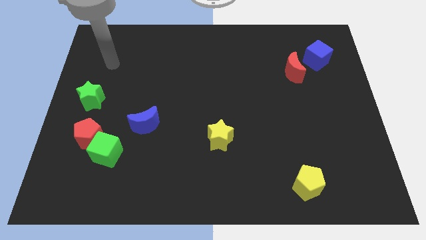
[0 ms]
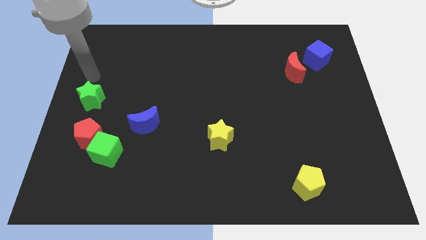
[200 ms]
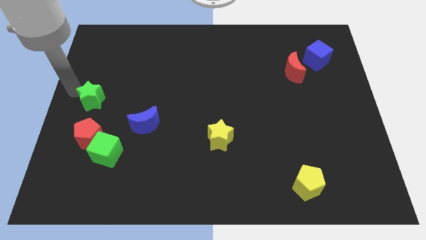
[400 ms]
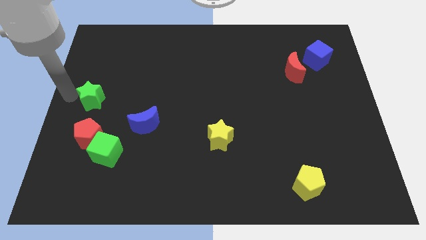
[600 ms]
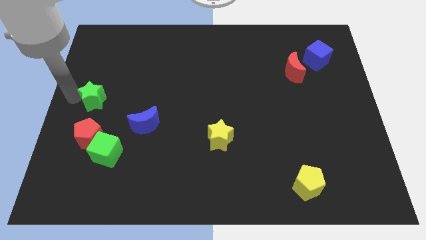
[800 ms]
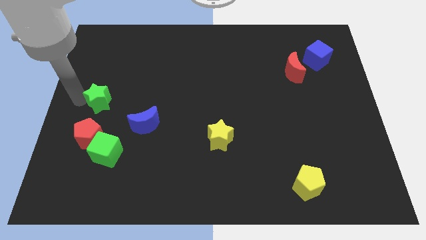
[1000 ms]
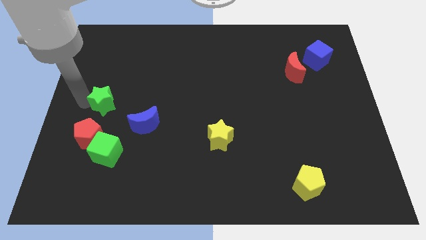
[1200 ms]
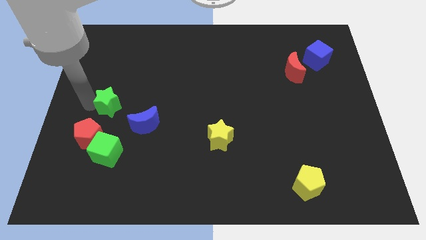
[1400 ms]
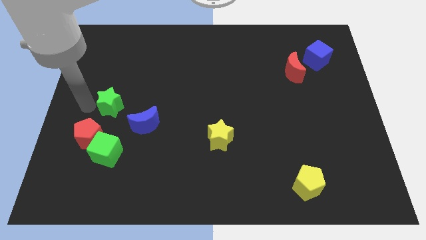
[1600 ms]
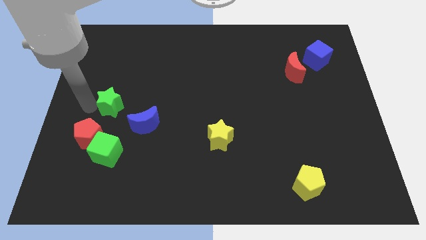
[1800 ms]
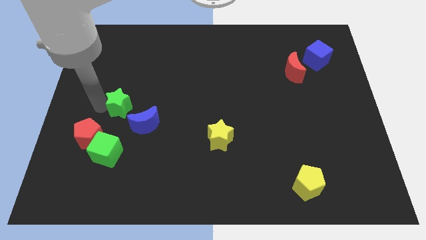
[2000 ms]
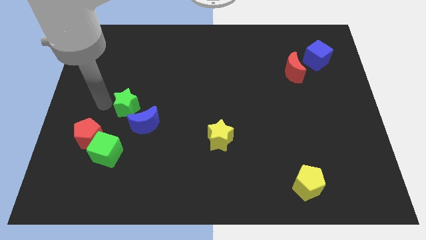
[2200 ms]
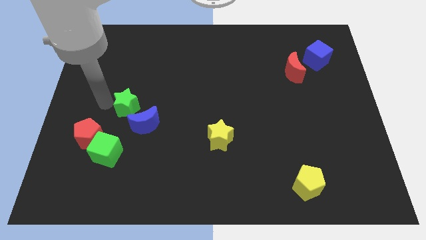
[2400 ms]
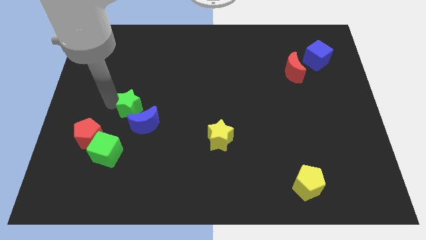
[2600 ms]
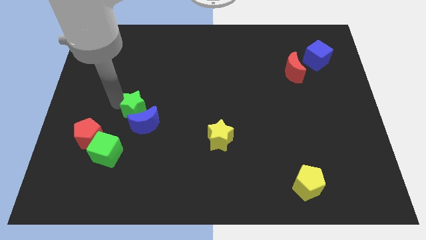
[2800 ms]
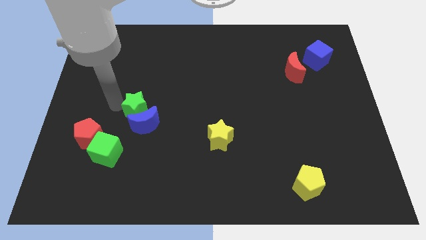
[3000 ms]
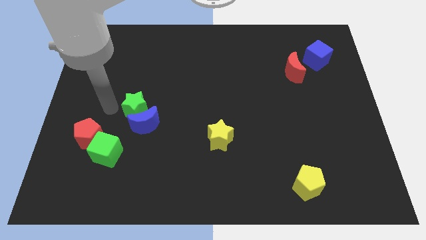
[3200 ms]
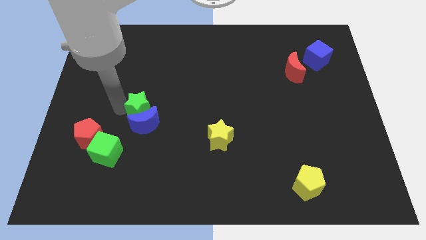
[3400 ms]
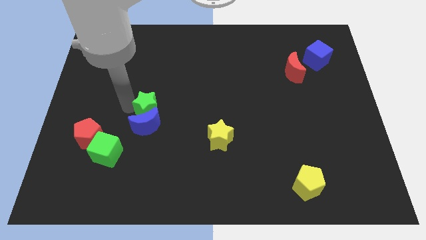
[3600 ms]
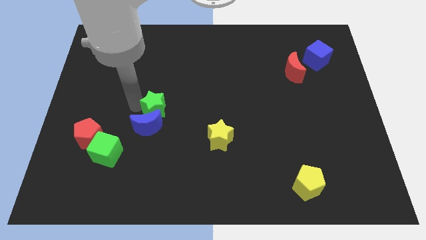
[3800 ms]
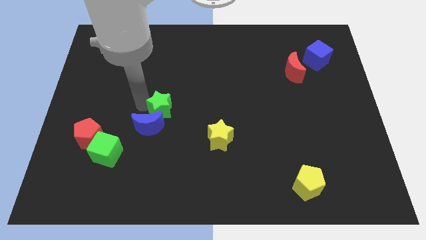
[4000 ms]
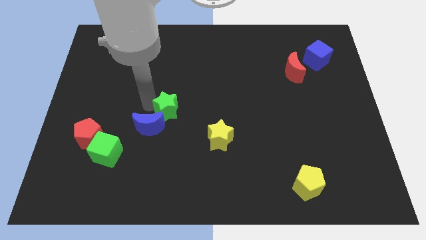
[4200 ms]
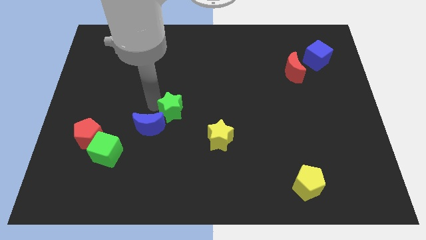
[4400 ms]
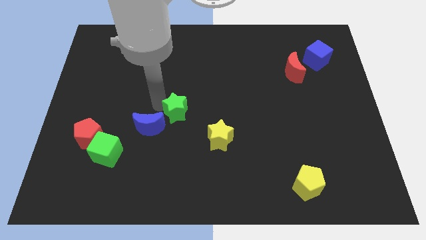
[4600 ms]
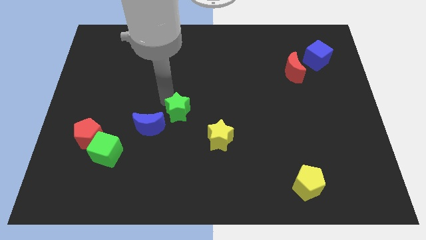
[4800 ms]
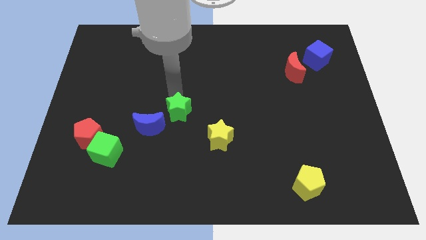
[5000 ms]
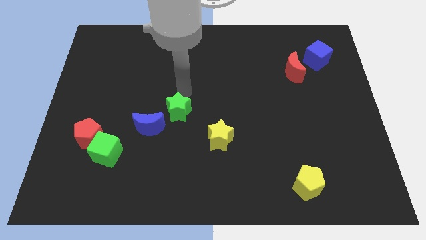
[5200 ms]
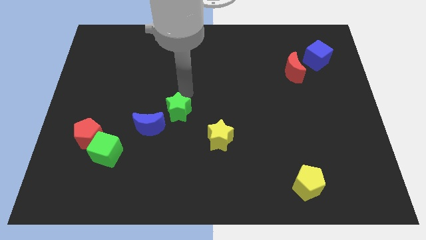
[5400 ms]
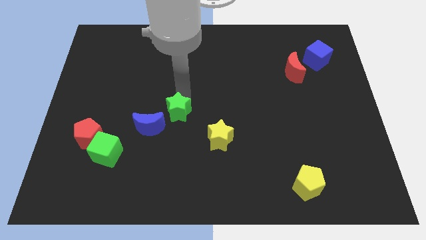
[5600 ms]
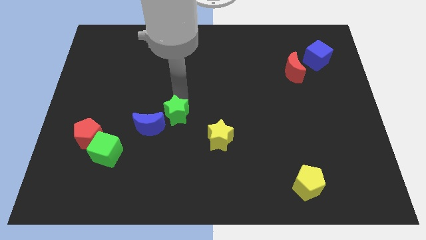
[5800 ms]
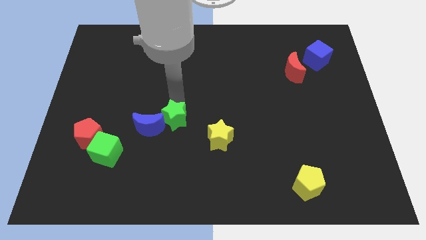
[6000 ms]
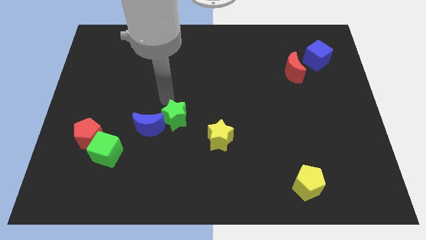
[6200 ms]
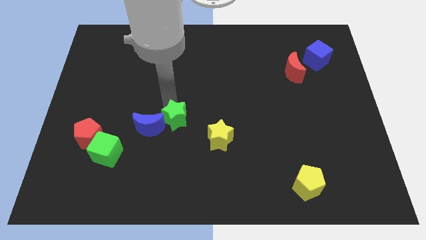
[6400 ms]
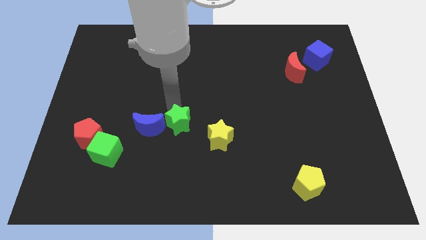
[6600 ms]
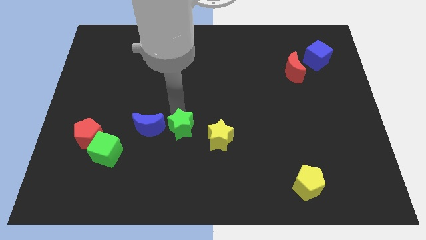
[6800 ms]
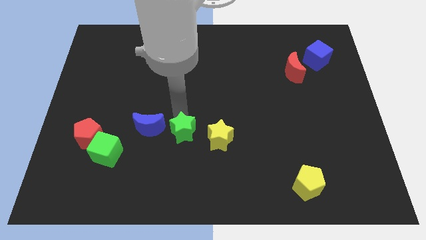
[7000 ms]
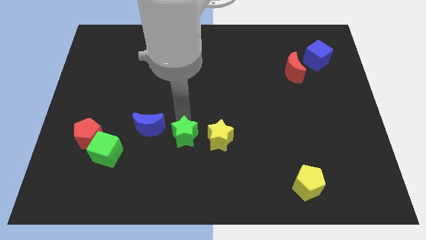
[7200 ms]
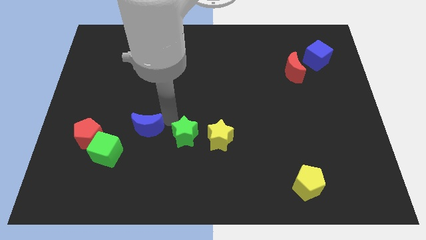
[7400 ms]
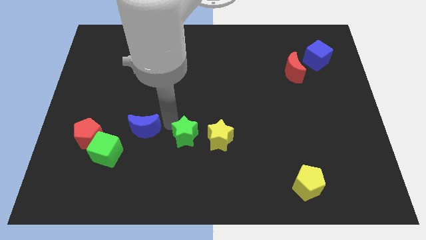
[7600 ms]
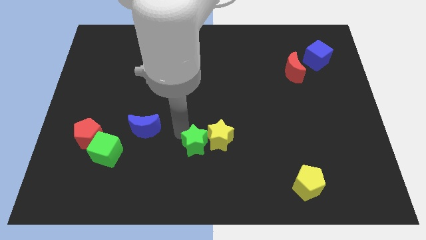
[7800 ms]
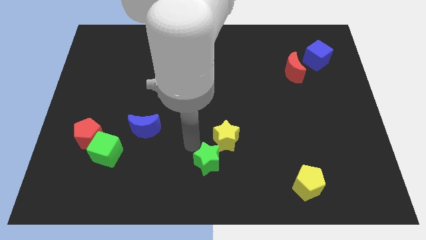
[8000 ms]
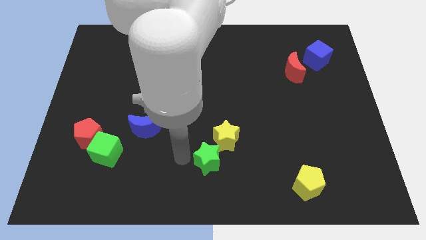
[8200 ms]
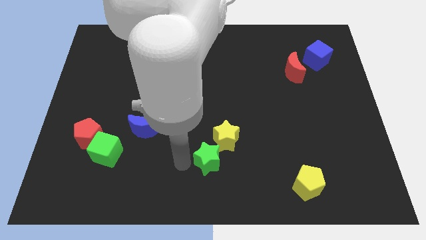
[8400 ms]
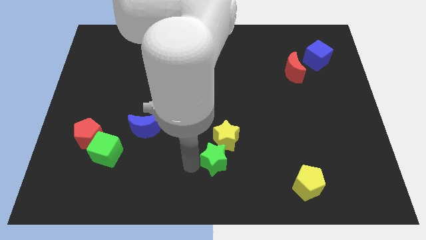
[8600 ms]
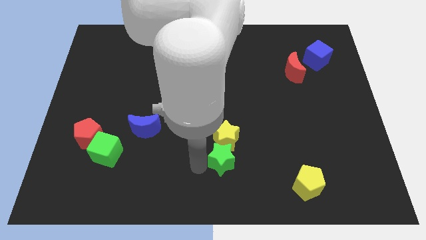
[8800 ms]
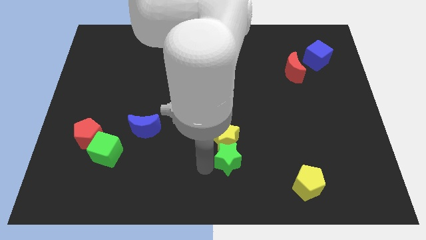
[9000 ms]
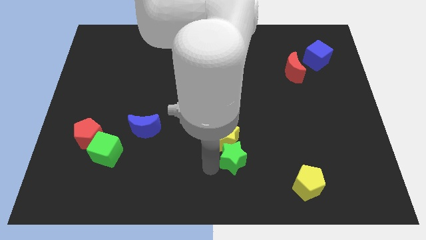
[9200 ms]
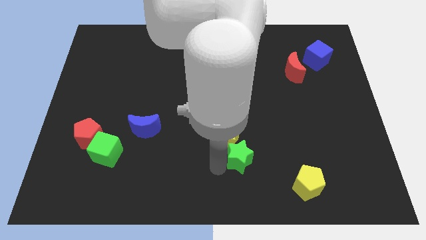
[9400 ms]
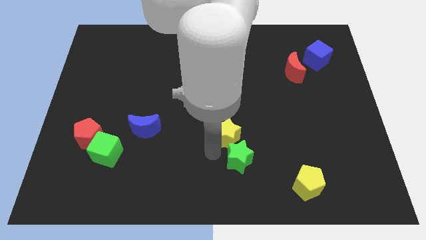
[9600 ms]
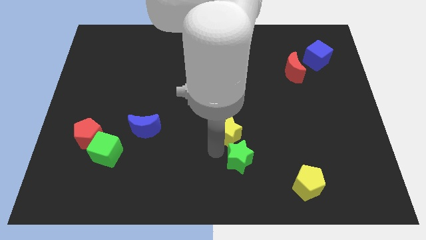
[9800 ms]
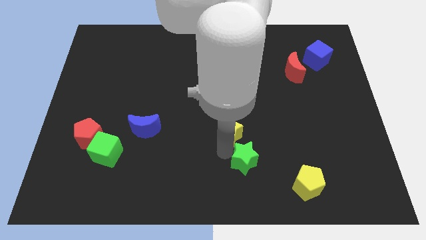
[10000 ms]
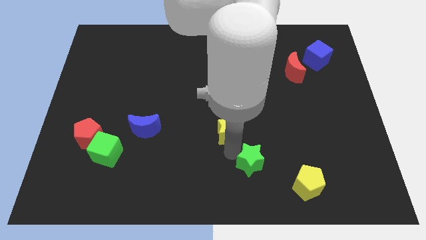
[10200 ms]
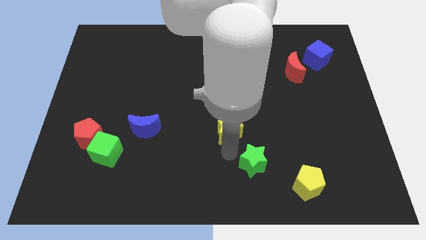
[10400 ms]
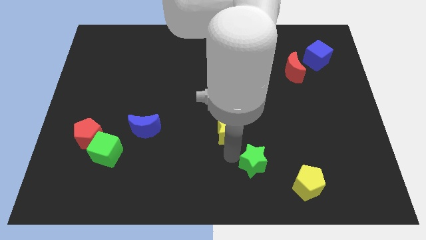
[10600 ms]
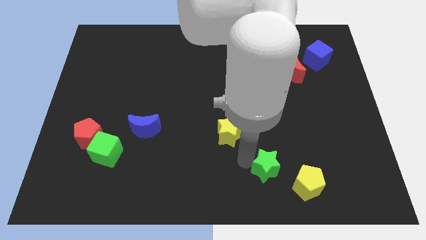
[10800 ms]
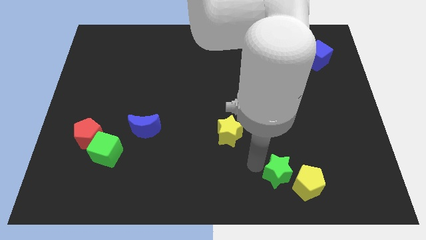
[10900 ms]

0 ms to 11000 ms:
put the green star towards the yellow pentagon

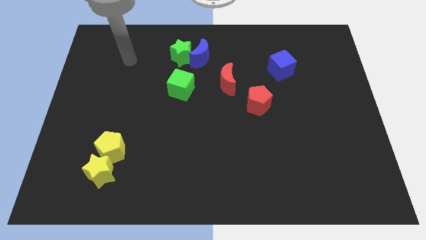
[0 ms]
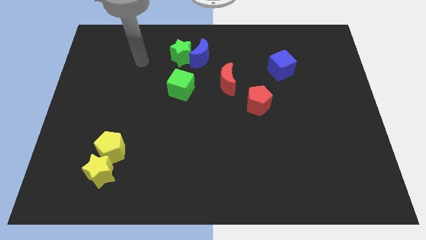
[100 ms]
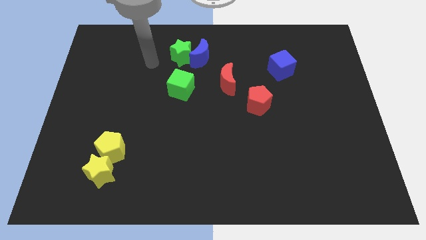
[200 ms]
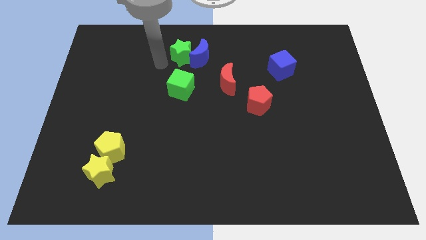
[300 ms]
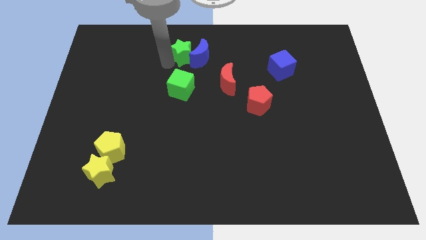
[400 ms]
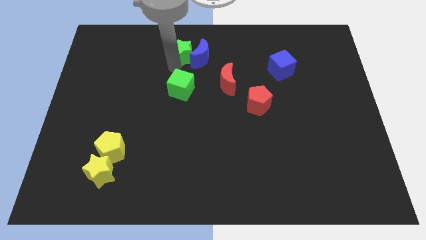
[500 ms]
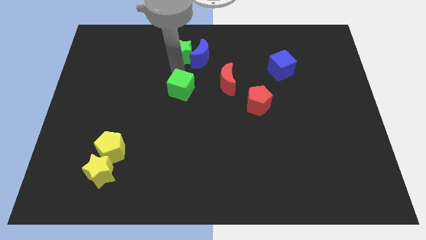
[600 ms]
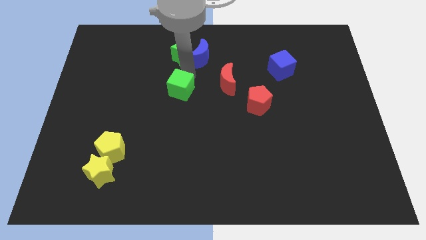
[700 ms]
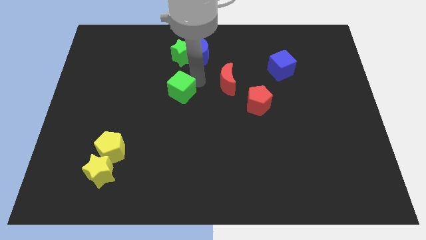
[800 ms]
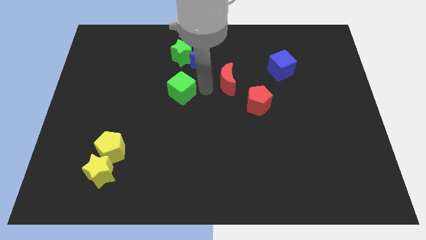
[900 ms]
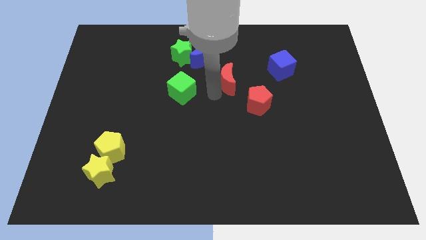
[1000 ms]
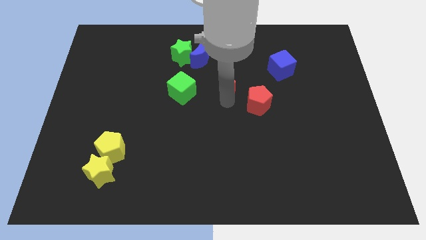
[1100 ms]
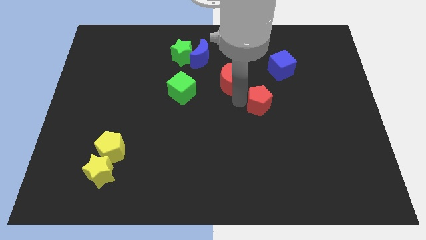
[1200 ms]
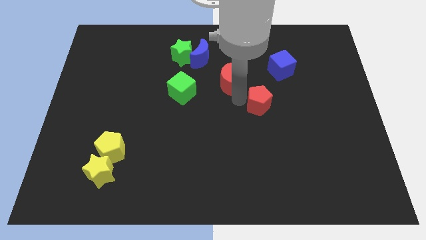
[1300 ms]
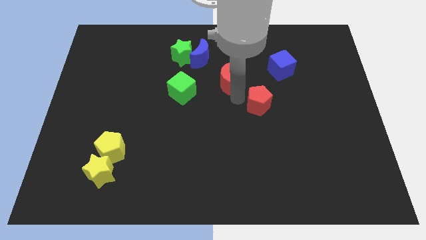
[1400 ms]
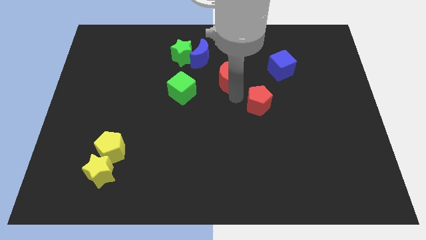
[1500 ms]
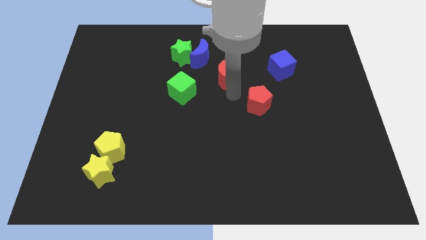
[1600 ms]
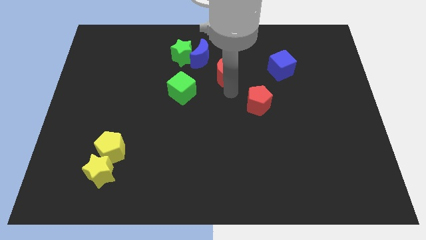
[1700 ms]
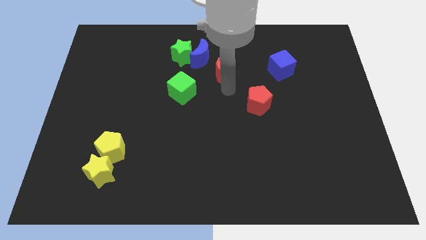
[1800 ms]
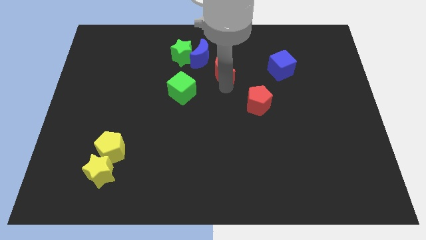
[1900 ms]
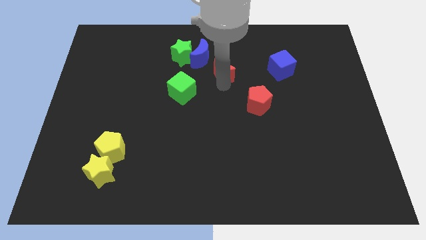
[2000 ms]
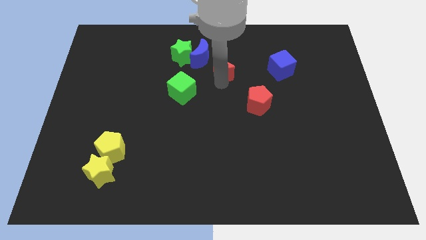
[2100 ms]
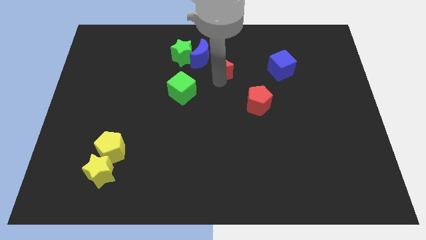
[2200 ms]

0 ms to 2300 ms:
push the red moon next to the blue moon
